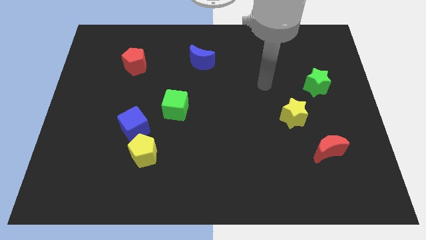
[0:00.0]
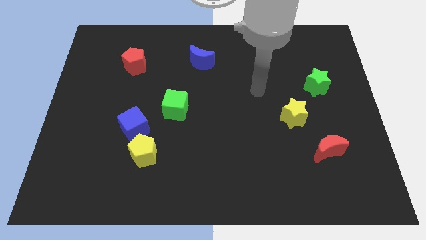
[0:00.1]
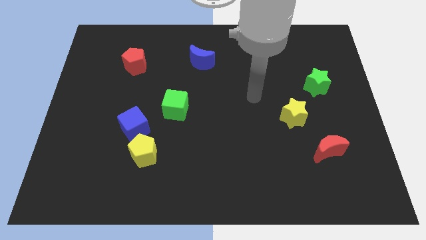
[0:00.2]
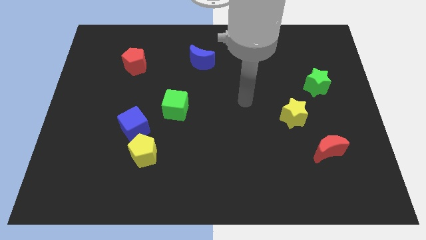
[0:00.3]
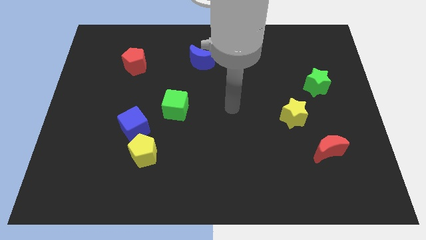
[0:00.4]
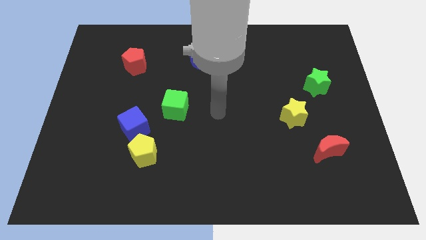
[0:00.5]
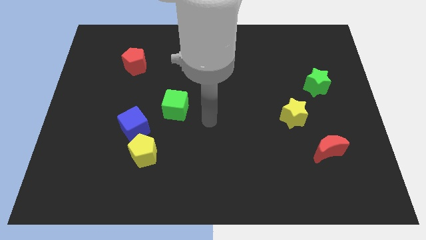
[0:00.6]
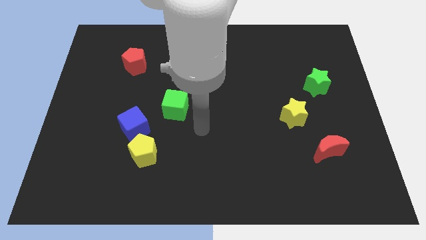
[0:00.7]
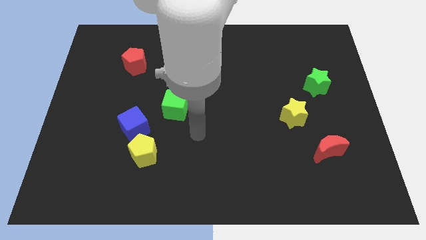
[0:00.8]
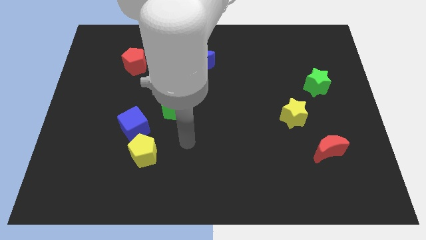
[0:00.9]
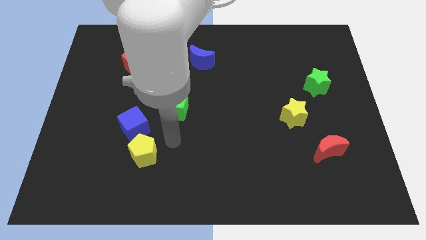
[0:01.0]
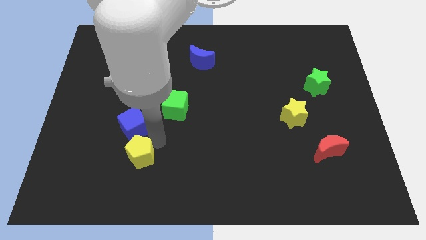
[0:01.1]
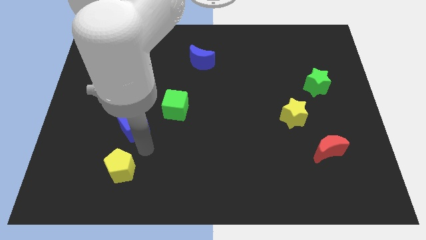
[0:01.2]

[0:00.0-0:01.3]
separate the blue cube from the yellow pentagon

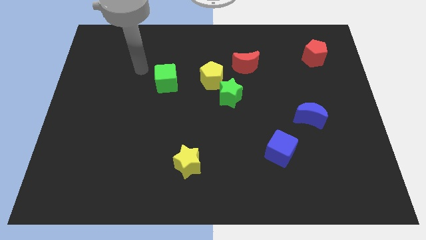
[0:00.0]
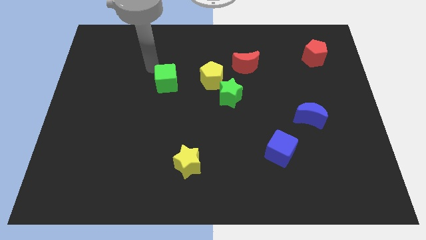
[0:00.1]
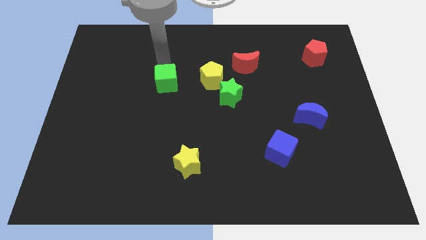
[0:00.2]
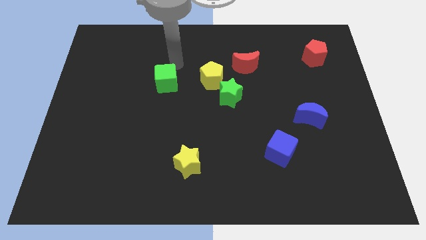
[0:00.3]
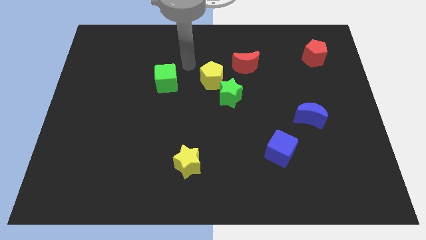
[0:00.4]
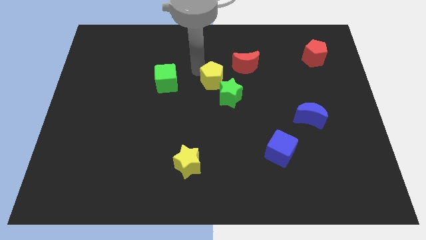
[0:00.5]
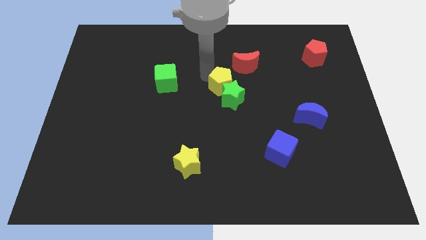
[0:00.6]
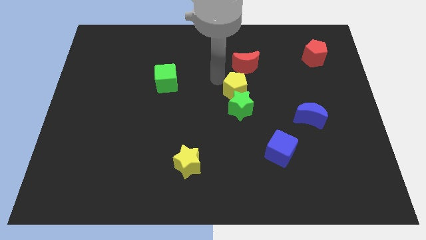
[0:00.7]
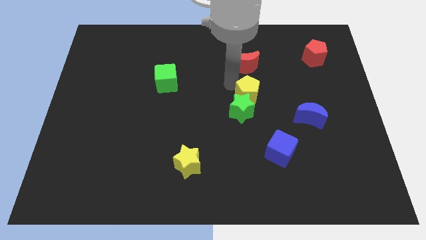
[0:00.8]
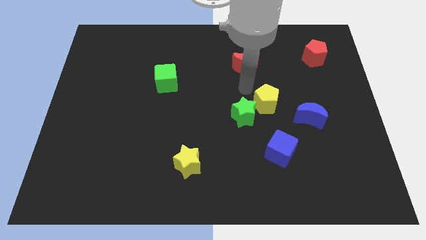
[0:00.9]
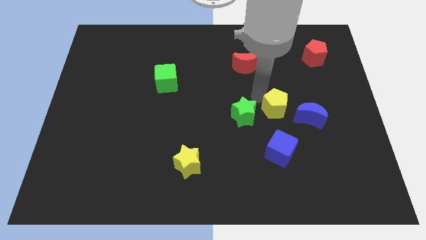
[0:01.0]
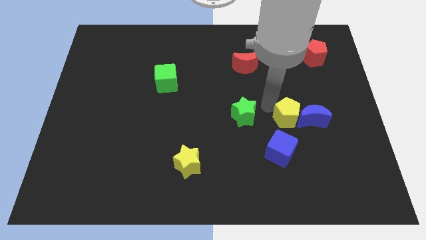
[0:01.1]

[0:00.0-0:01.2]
move the green star away from the yellow pentagon

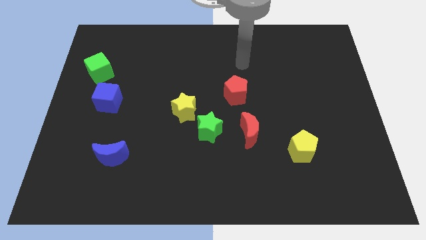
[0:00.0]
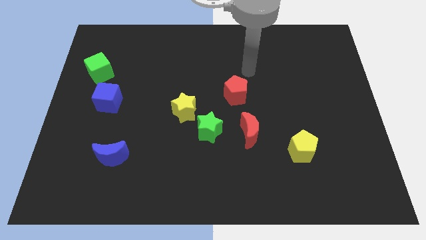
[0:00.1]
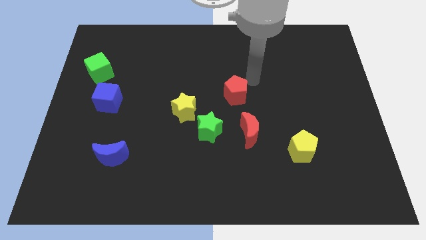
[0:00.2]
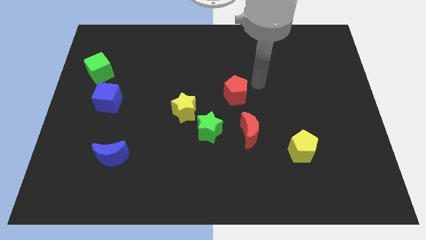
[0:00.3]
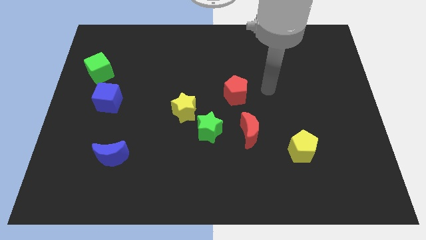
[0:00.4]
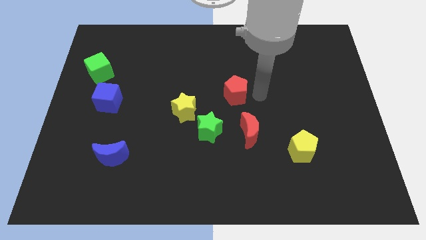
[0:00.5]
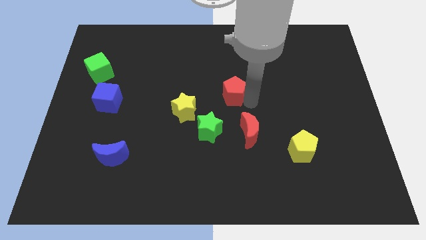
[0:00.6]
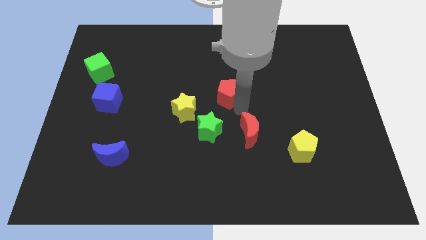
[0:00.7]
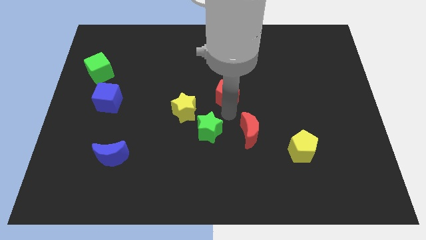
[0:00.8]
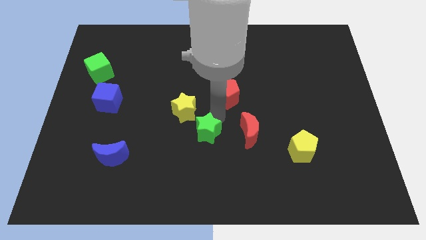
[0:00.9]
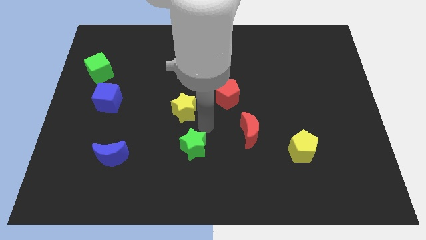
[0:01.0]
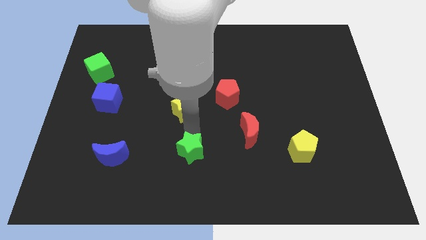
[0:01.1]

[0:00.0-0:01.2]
separate the yellow star from the green star

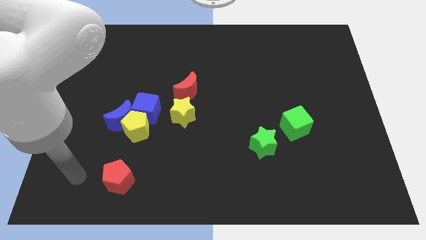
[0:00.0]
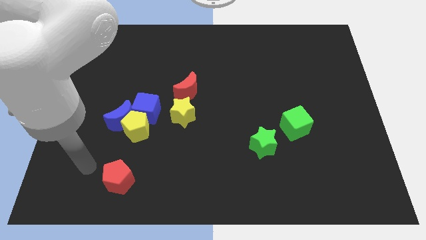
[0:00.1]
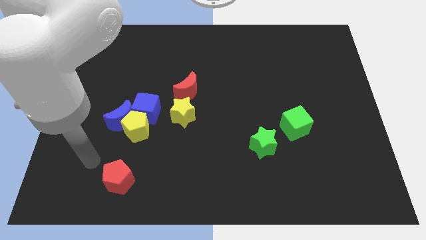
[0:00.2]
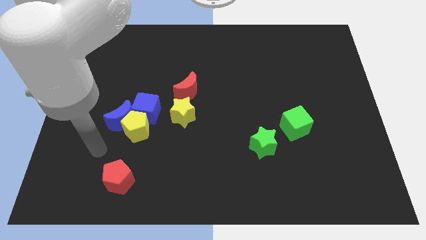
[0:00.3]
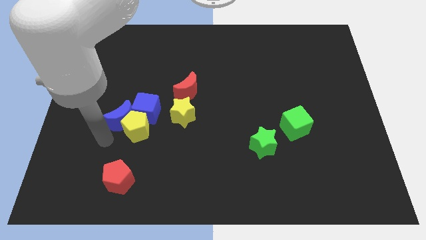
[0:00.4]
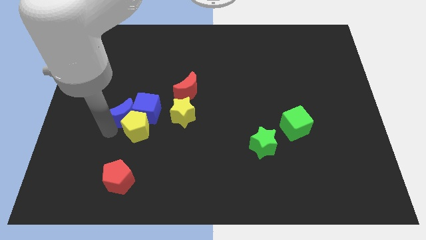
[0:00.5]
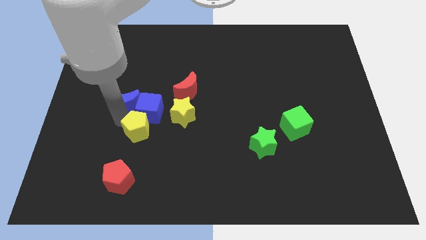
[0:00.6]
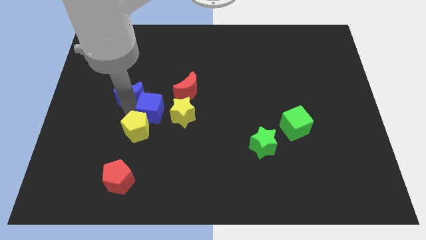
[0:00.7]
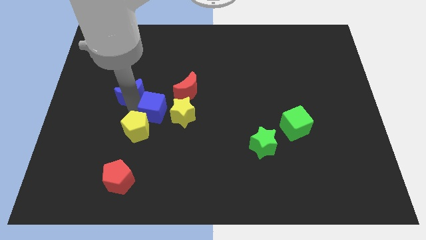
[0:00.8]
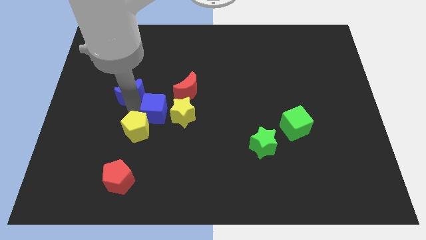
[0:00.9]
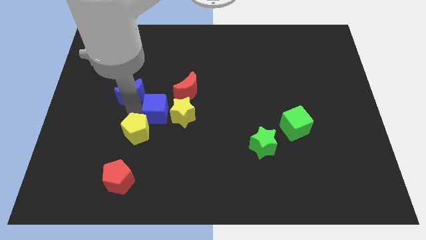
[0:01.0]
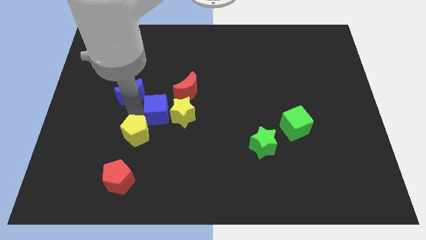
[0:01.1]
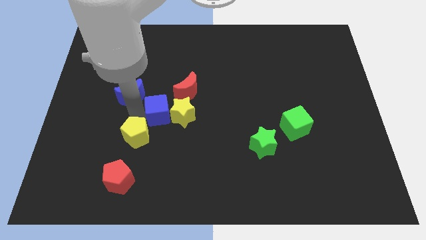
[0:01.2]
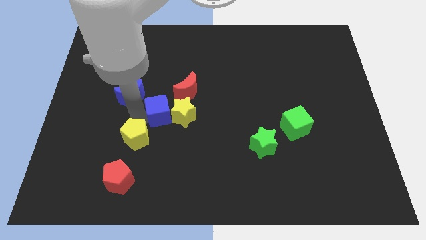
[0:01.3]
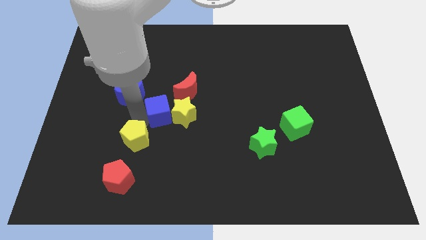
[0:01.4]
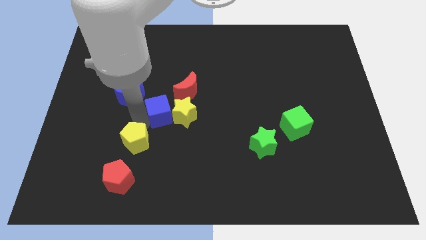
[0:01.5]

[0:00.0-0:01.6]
separate the yellow pentagon from the blue moon and blue cube

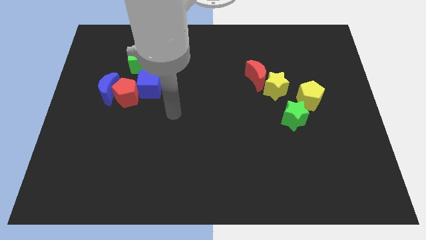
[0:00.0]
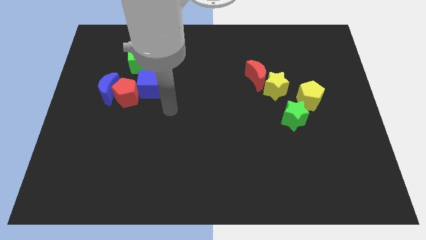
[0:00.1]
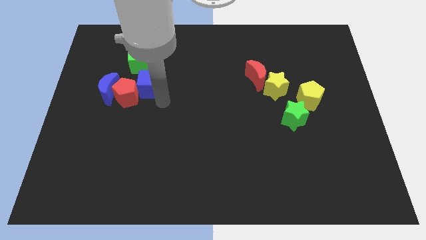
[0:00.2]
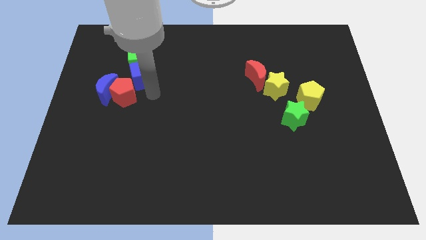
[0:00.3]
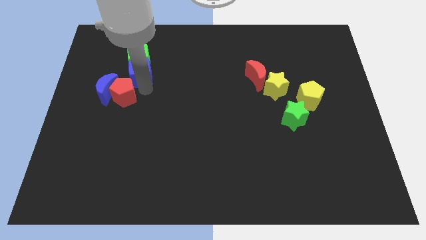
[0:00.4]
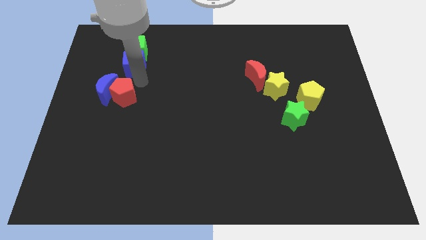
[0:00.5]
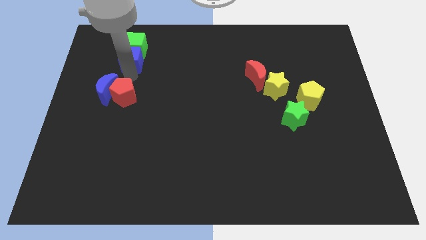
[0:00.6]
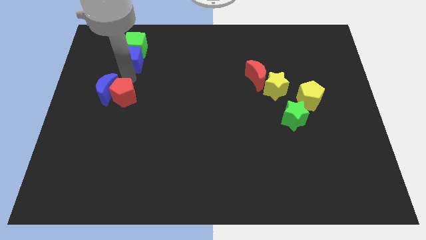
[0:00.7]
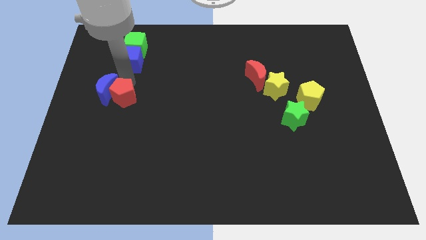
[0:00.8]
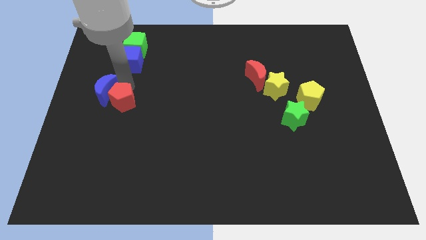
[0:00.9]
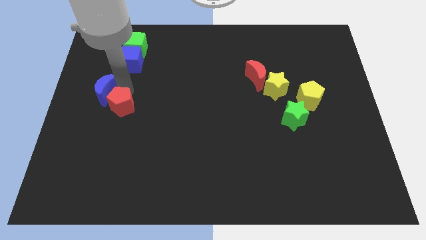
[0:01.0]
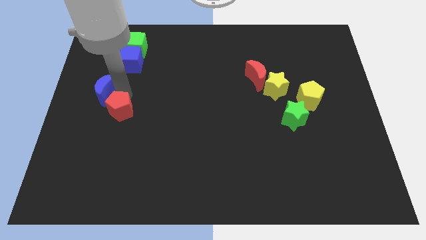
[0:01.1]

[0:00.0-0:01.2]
move the red pentagon away from the blue moon and blue cube

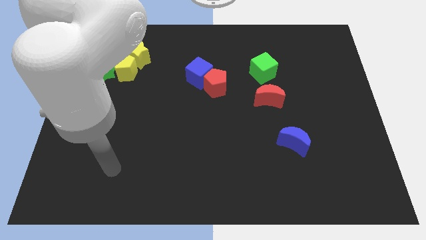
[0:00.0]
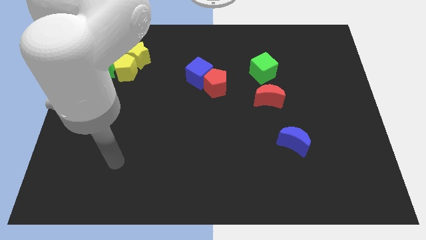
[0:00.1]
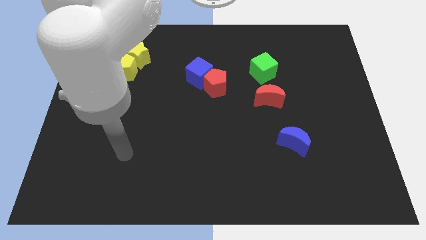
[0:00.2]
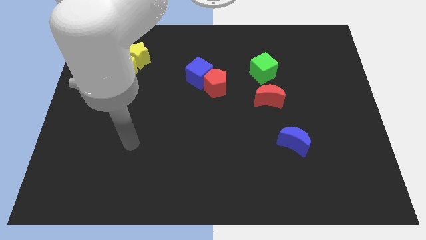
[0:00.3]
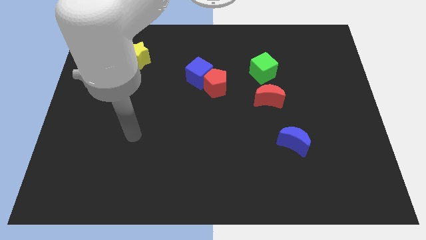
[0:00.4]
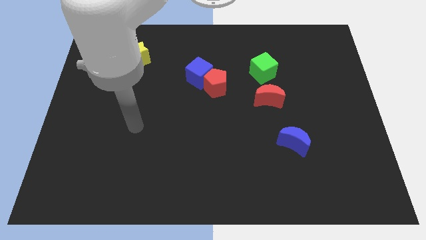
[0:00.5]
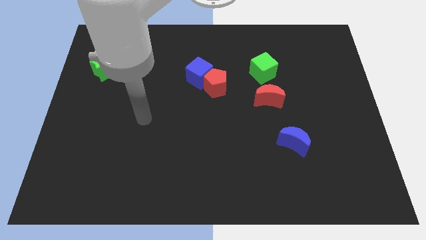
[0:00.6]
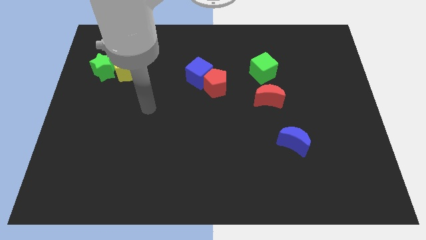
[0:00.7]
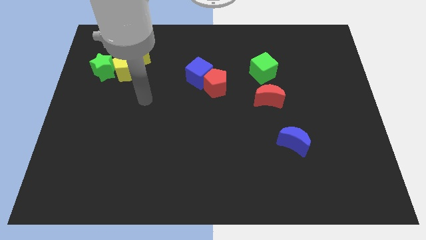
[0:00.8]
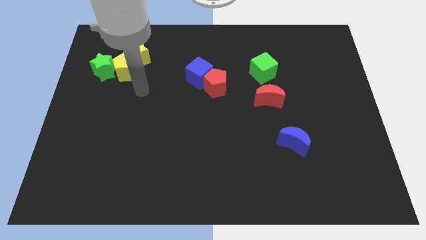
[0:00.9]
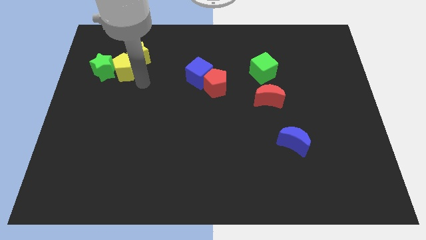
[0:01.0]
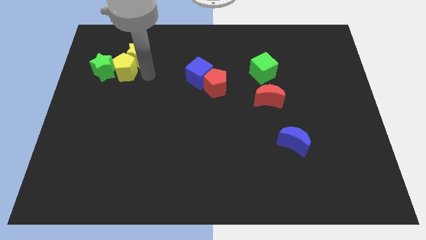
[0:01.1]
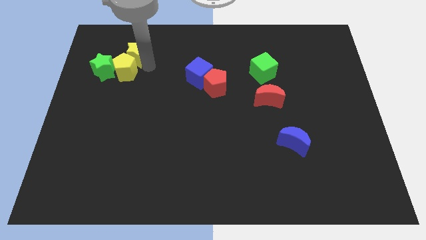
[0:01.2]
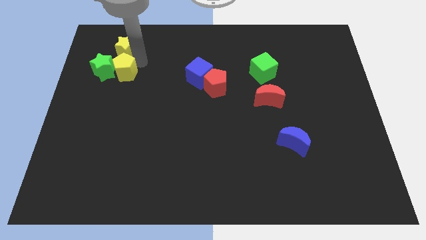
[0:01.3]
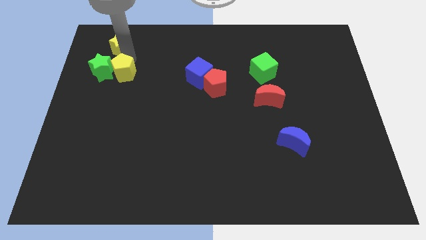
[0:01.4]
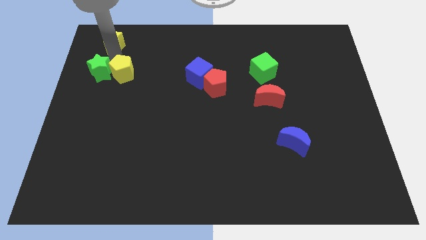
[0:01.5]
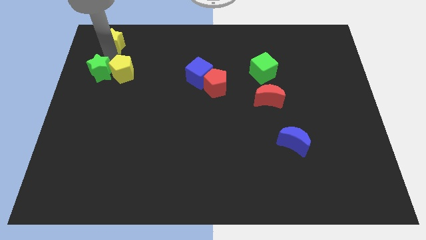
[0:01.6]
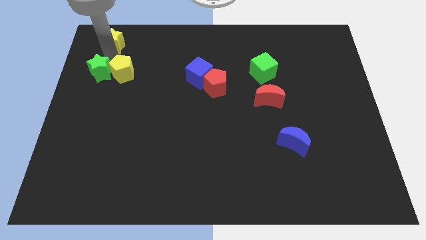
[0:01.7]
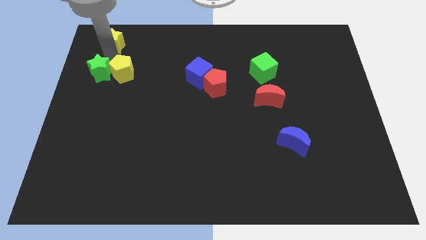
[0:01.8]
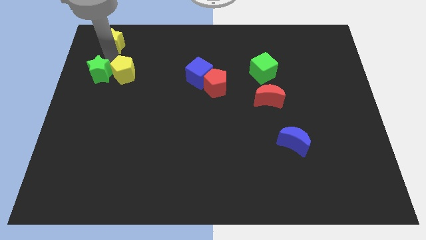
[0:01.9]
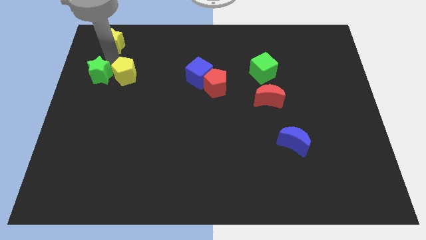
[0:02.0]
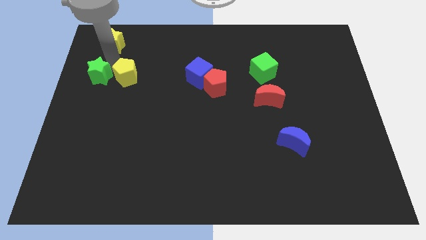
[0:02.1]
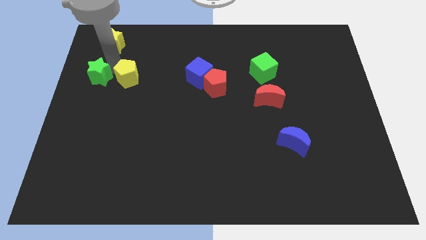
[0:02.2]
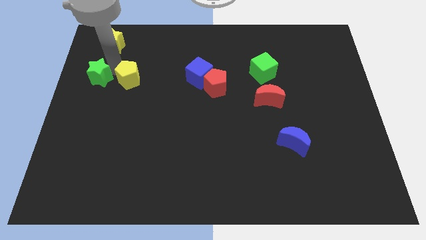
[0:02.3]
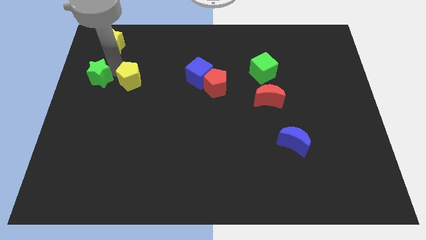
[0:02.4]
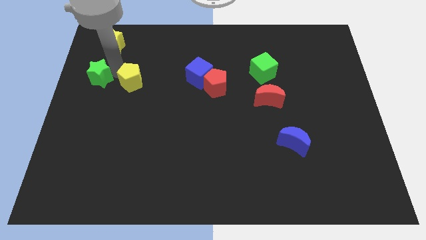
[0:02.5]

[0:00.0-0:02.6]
separate the yellow pentagon from the yellow star and green star

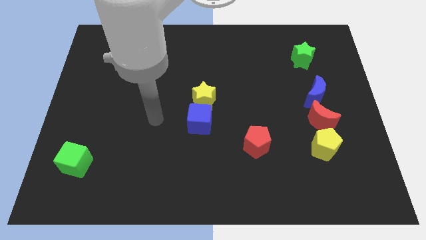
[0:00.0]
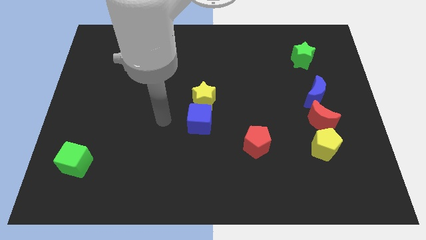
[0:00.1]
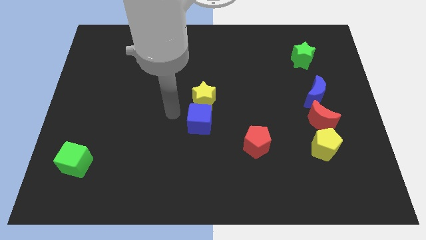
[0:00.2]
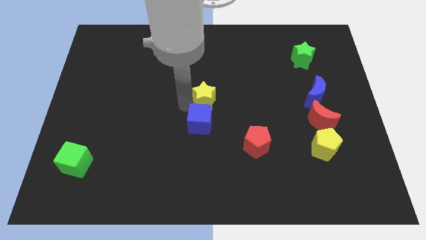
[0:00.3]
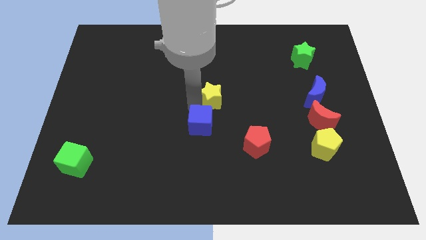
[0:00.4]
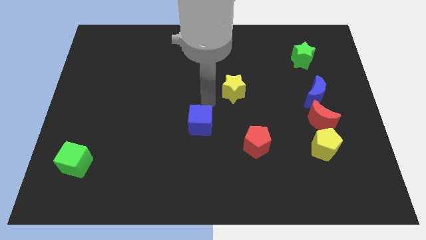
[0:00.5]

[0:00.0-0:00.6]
move the blue cube away from the yellow star
